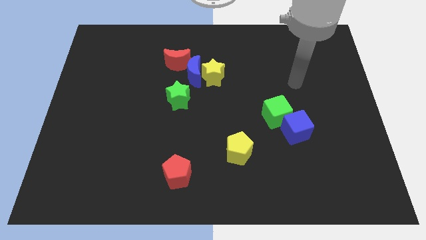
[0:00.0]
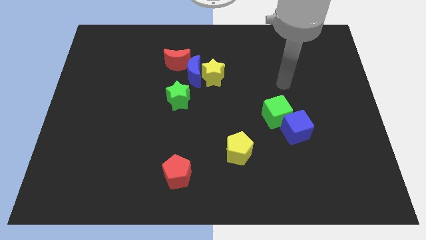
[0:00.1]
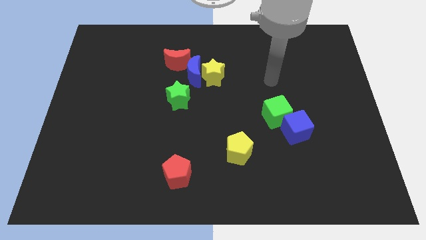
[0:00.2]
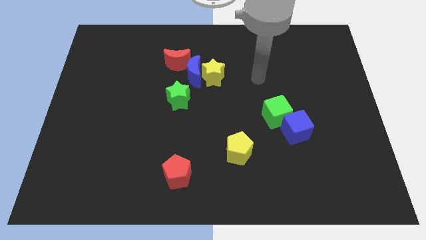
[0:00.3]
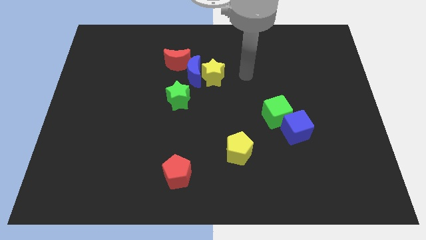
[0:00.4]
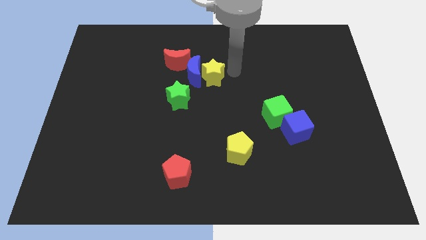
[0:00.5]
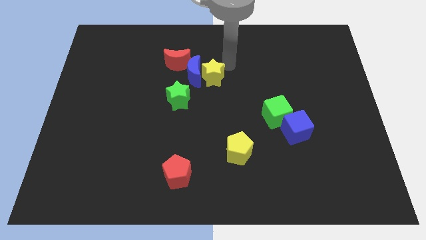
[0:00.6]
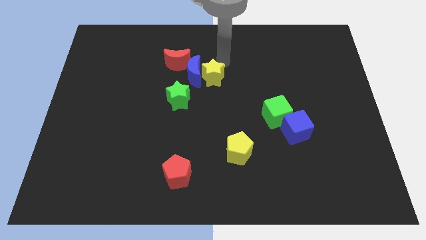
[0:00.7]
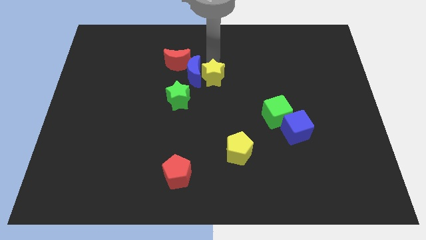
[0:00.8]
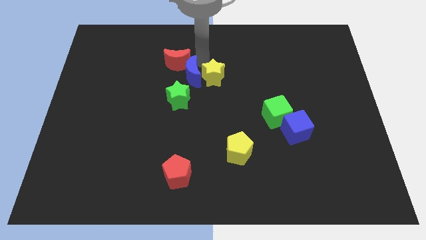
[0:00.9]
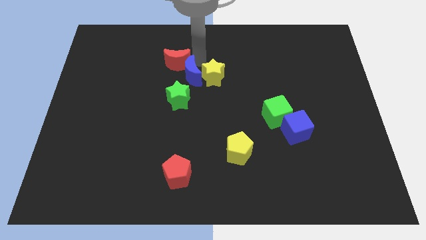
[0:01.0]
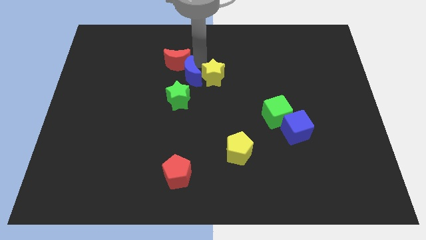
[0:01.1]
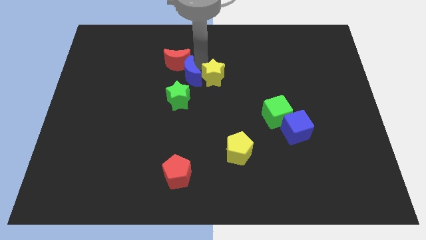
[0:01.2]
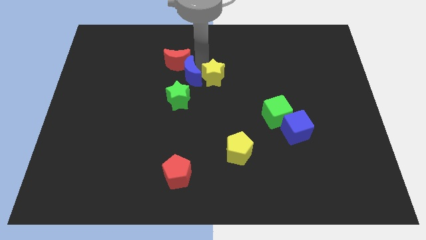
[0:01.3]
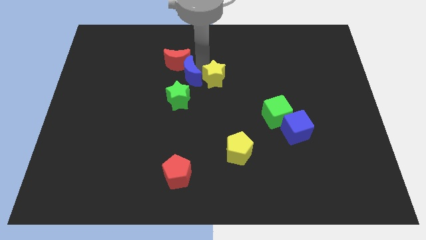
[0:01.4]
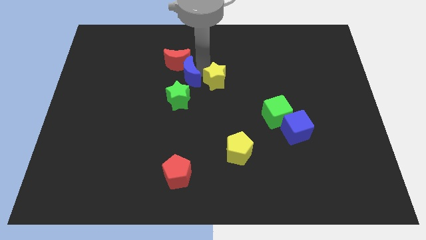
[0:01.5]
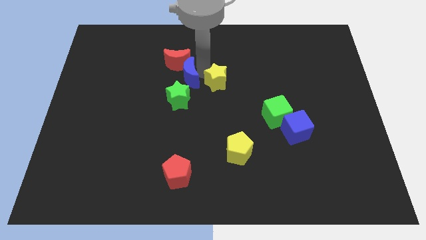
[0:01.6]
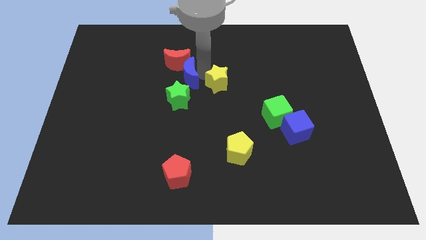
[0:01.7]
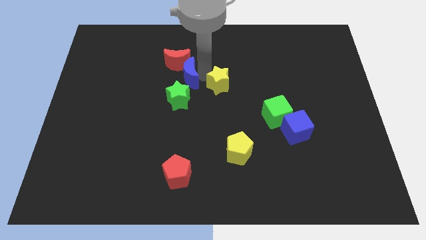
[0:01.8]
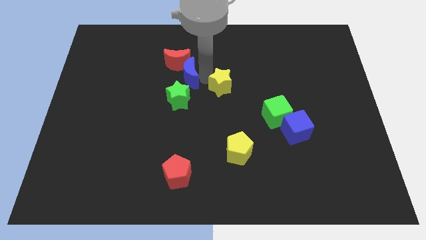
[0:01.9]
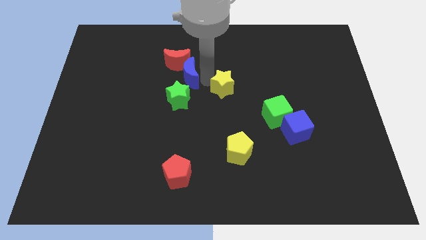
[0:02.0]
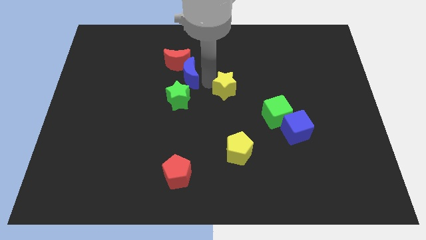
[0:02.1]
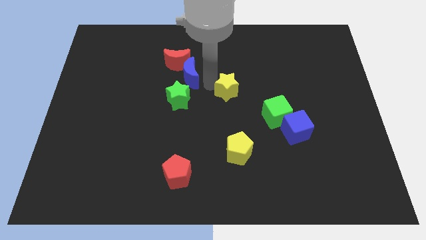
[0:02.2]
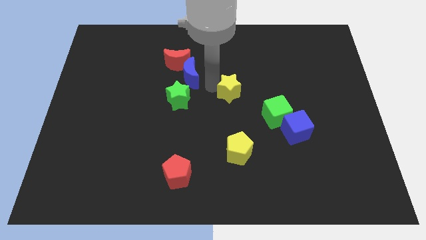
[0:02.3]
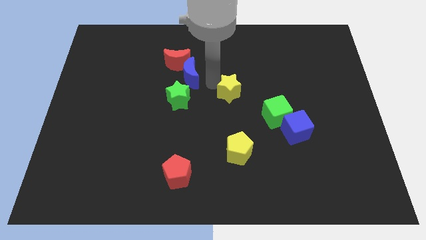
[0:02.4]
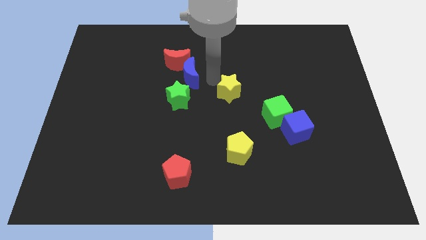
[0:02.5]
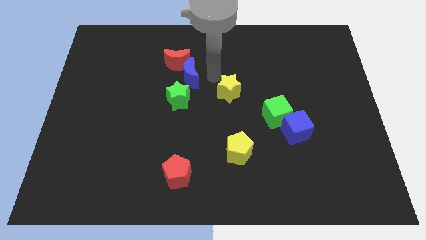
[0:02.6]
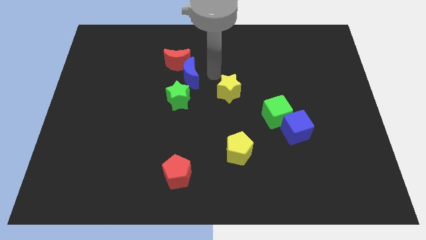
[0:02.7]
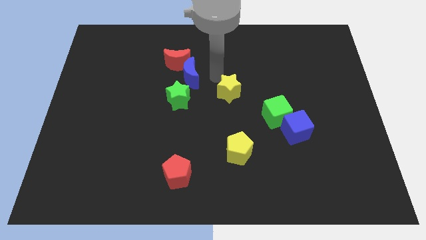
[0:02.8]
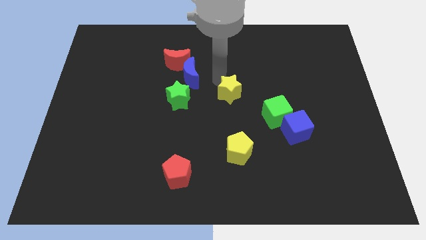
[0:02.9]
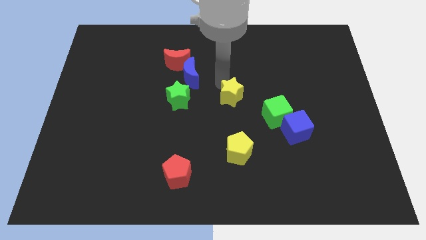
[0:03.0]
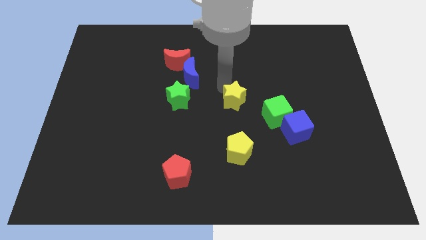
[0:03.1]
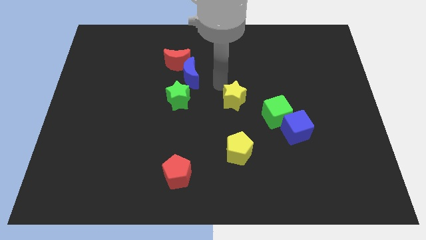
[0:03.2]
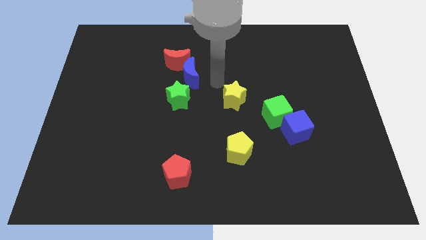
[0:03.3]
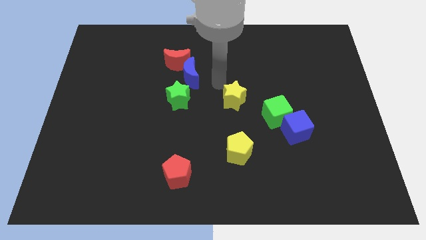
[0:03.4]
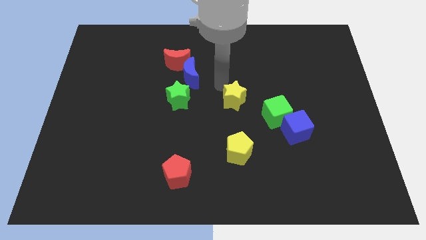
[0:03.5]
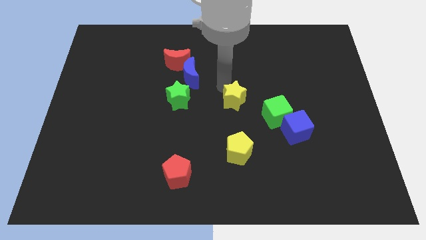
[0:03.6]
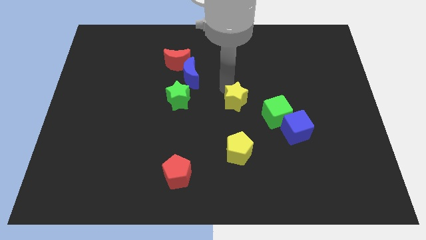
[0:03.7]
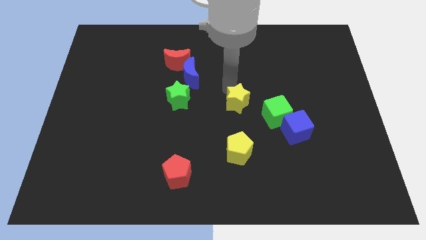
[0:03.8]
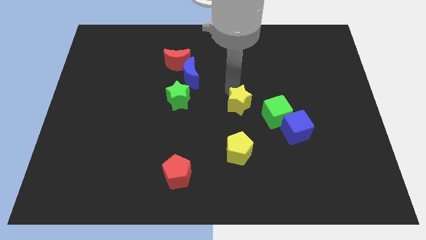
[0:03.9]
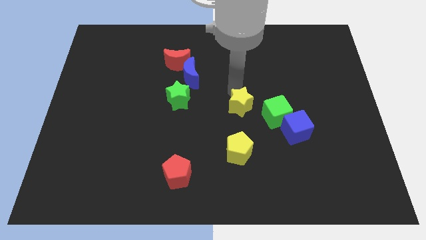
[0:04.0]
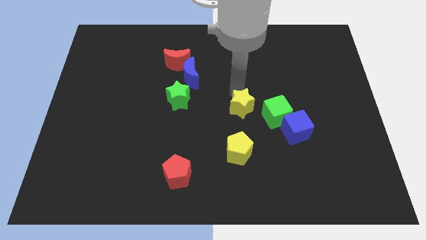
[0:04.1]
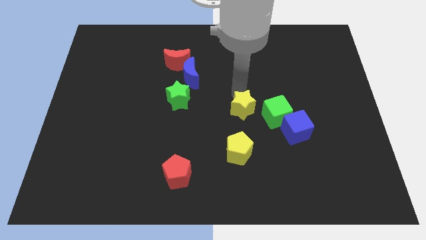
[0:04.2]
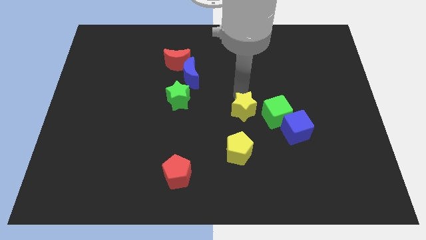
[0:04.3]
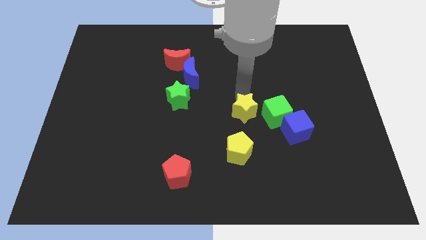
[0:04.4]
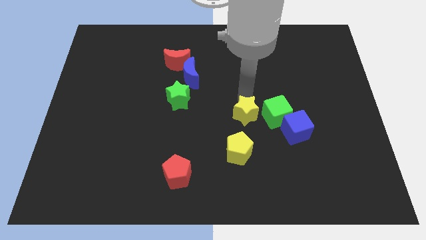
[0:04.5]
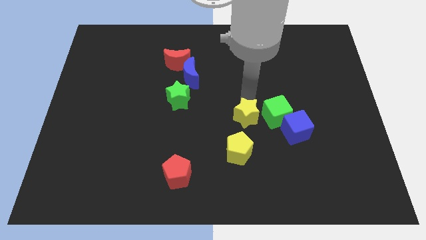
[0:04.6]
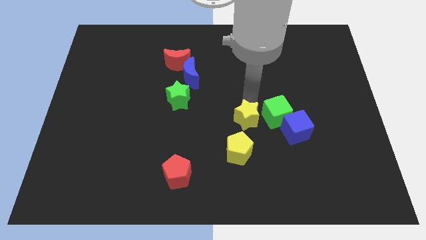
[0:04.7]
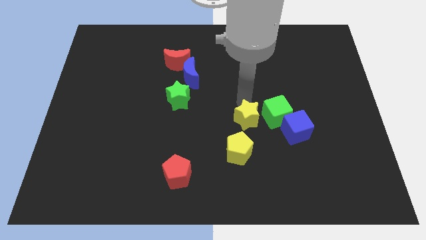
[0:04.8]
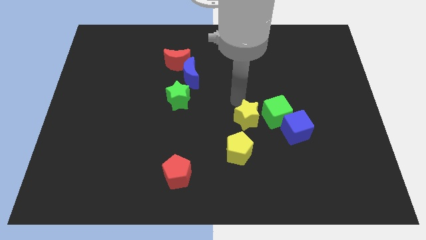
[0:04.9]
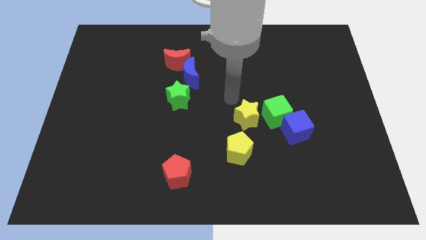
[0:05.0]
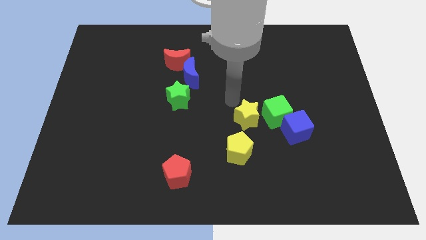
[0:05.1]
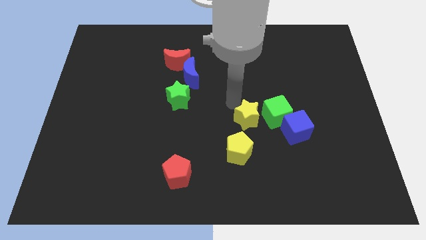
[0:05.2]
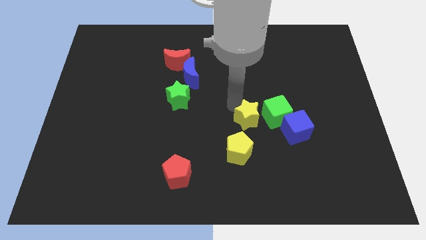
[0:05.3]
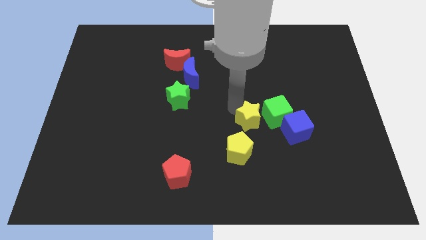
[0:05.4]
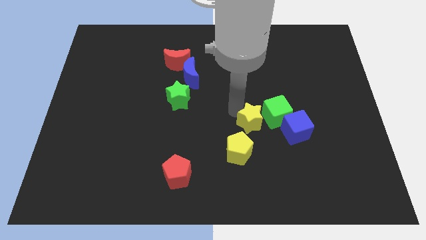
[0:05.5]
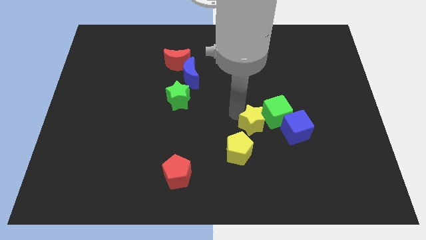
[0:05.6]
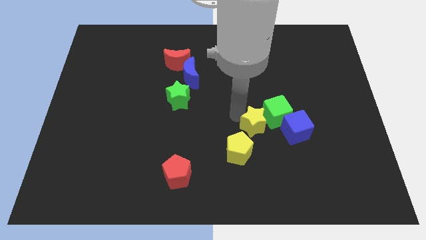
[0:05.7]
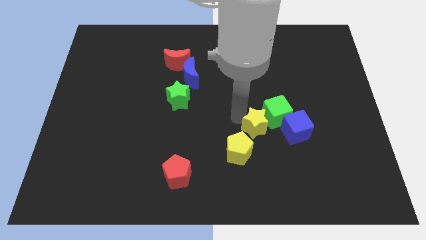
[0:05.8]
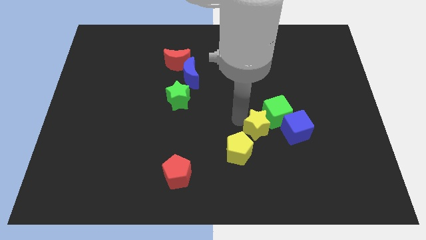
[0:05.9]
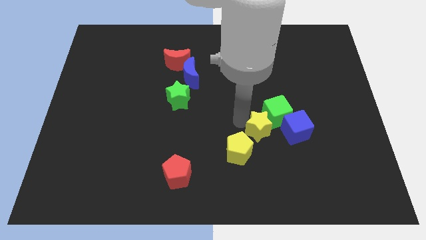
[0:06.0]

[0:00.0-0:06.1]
put the yellow star to the bottom of the green cube

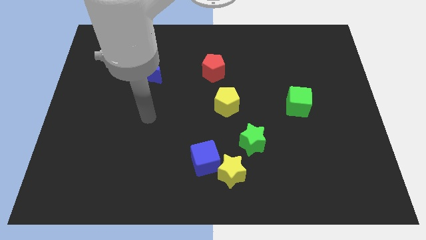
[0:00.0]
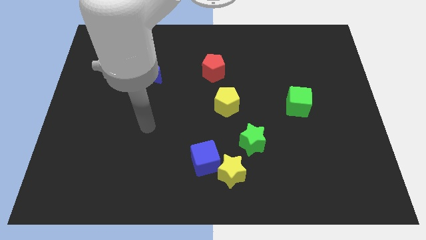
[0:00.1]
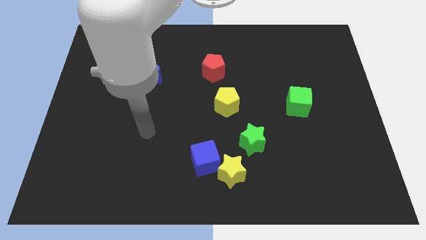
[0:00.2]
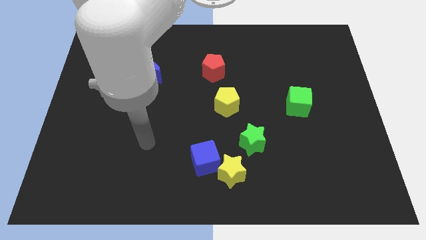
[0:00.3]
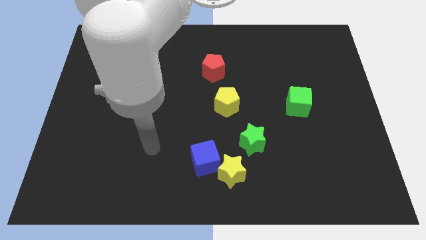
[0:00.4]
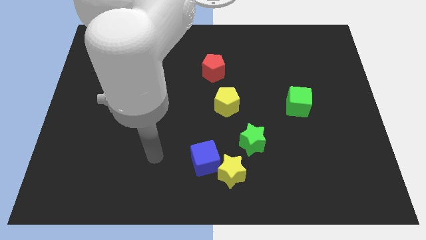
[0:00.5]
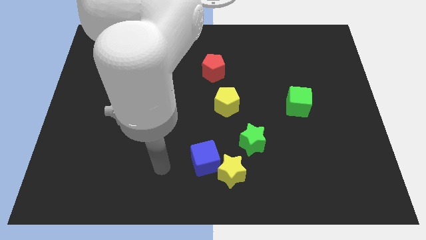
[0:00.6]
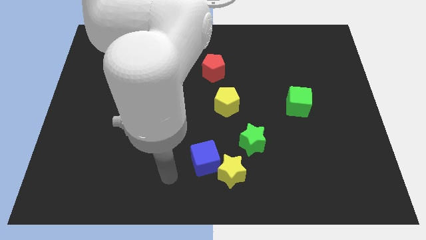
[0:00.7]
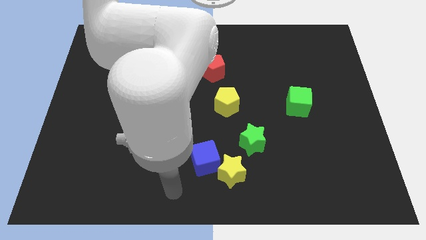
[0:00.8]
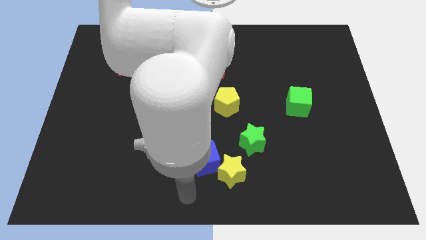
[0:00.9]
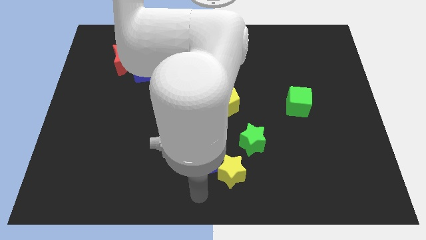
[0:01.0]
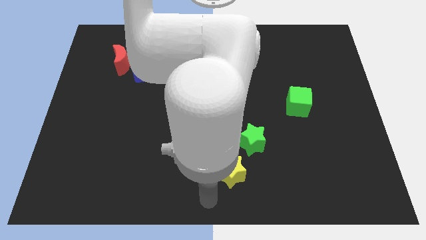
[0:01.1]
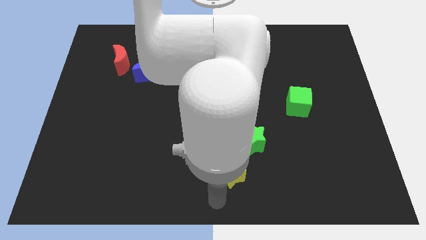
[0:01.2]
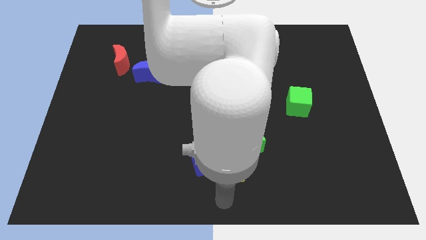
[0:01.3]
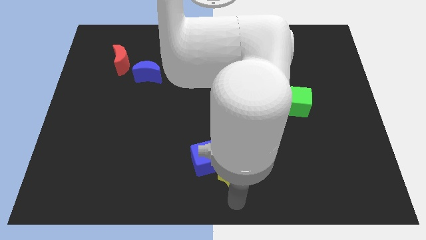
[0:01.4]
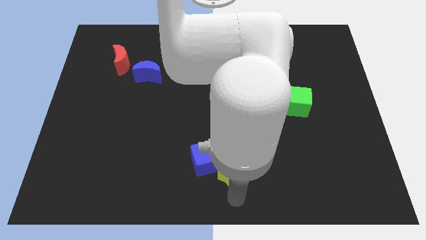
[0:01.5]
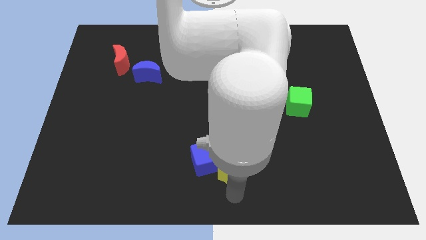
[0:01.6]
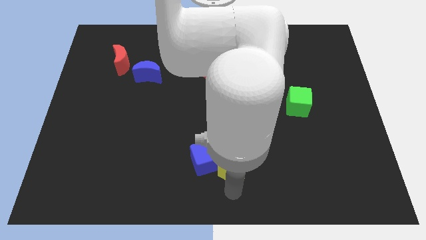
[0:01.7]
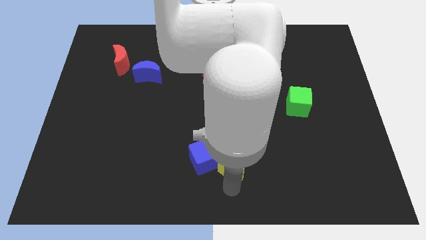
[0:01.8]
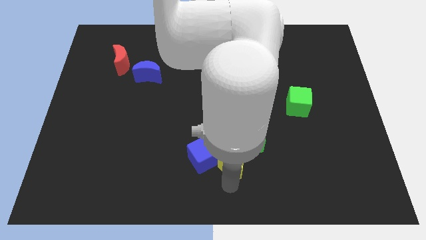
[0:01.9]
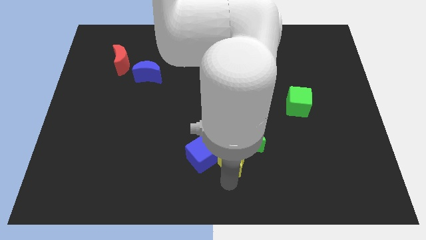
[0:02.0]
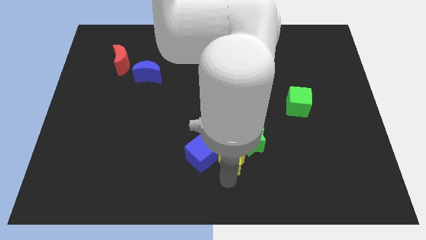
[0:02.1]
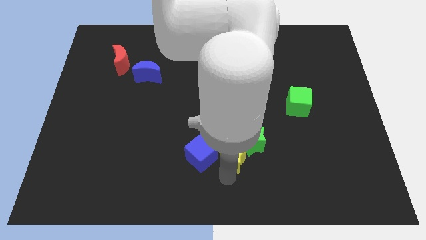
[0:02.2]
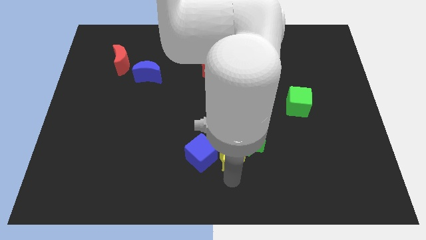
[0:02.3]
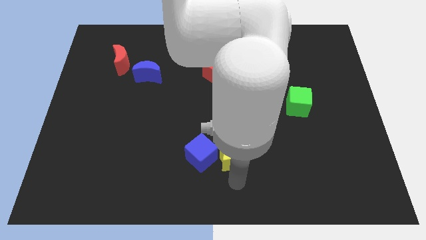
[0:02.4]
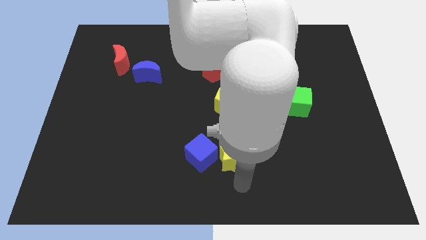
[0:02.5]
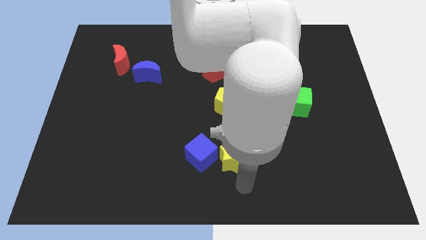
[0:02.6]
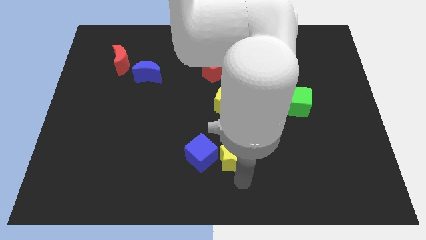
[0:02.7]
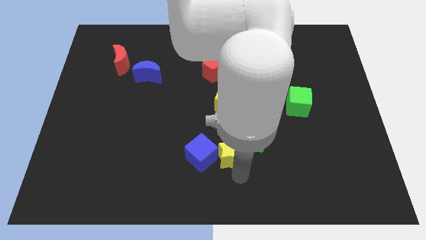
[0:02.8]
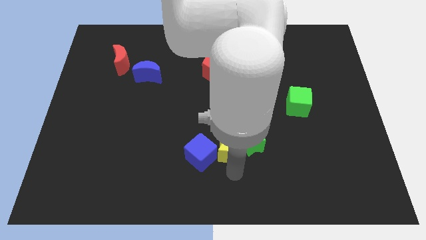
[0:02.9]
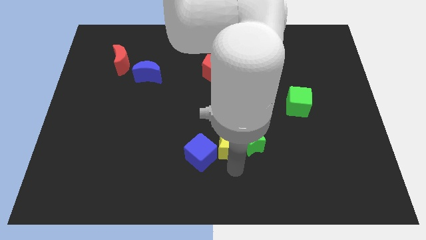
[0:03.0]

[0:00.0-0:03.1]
push the yellow star to the top left of the green star
